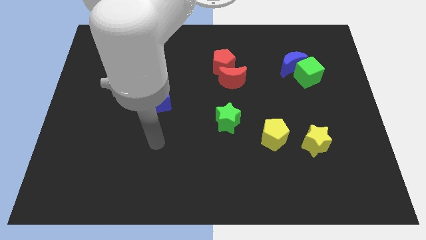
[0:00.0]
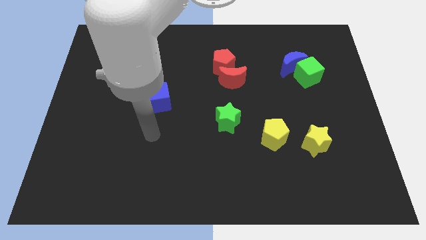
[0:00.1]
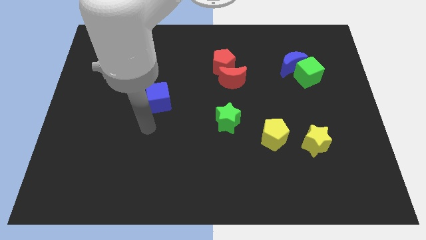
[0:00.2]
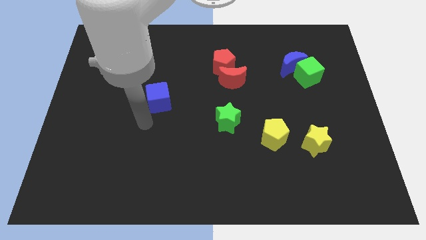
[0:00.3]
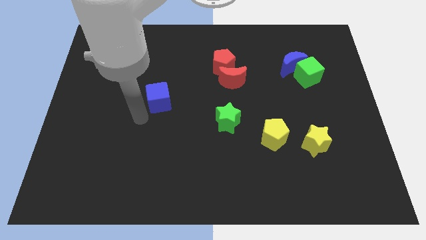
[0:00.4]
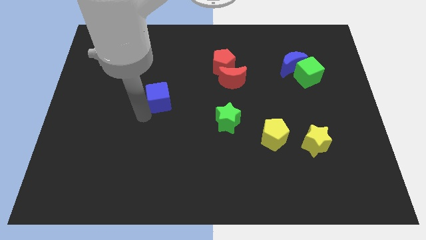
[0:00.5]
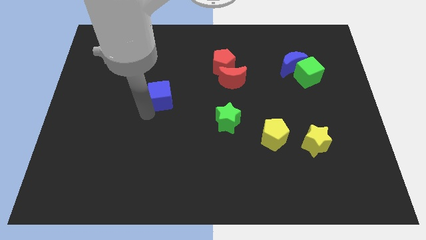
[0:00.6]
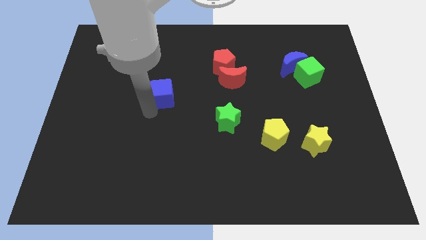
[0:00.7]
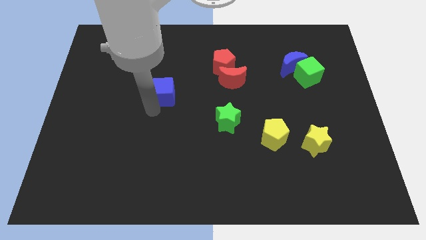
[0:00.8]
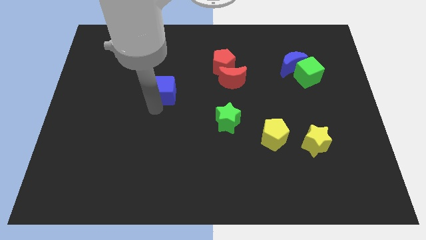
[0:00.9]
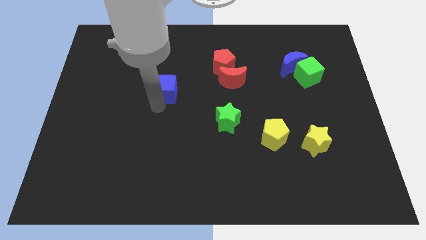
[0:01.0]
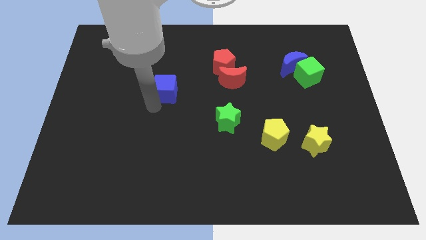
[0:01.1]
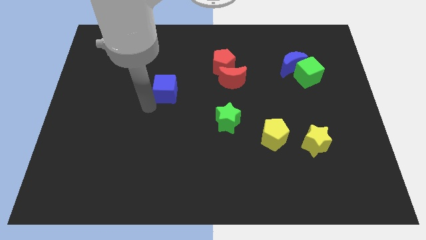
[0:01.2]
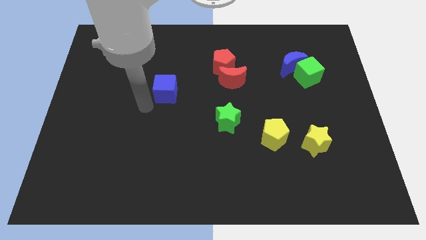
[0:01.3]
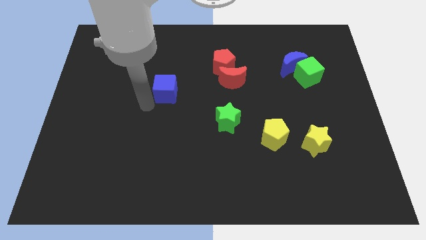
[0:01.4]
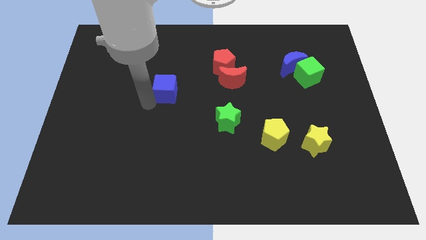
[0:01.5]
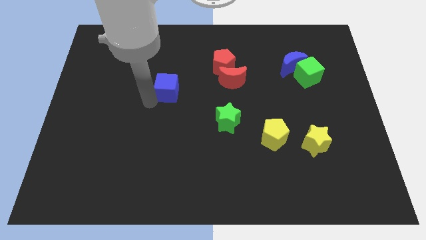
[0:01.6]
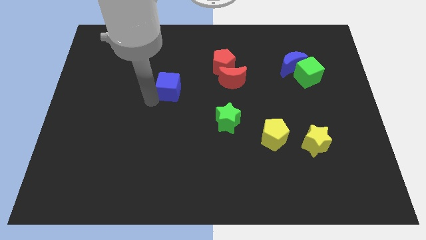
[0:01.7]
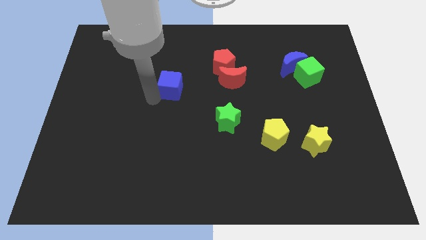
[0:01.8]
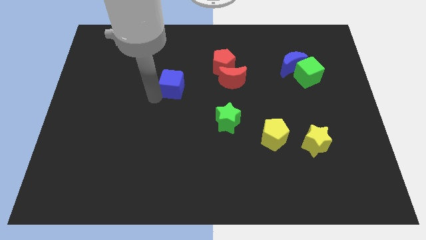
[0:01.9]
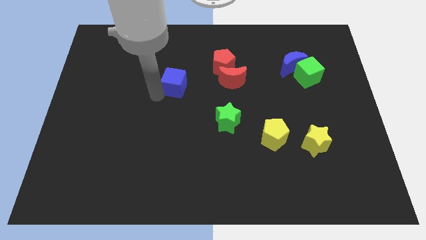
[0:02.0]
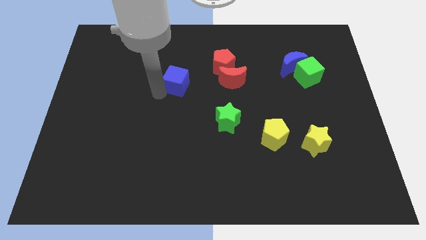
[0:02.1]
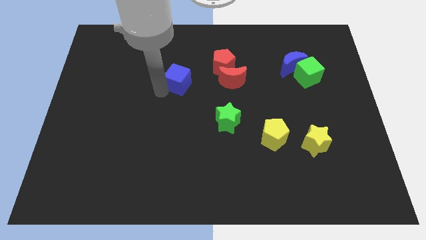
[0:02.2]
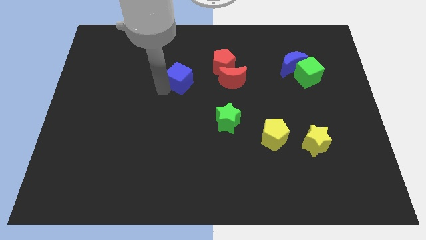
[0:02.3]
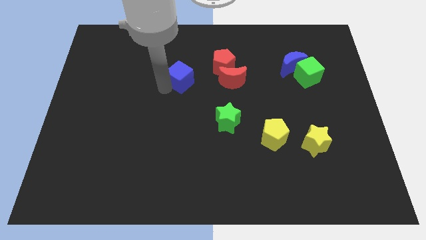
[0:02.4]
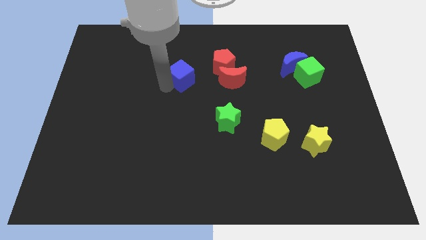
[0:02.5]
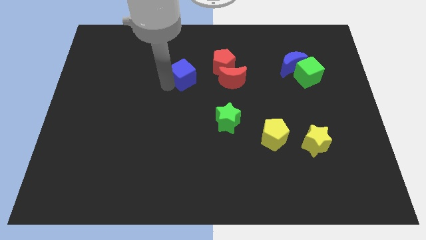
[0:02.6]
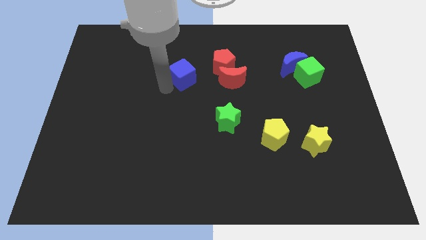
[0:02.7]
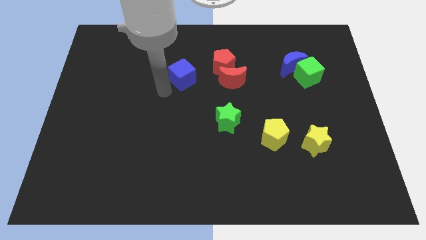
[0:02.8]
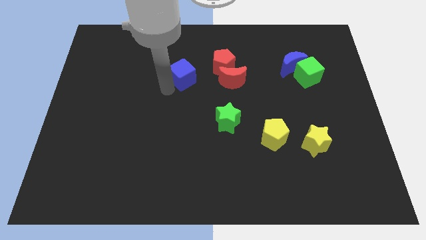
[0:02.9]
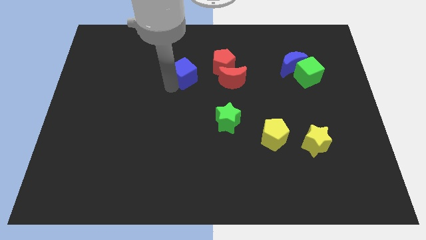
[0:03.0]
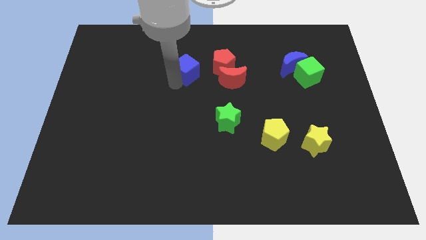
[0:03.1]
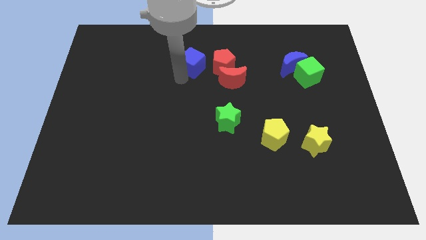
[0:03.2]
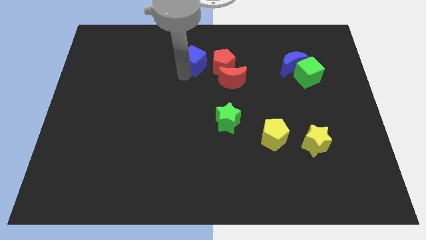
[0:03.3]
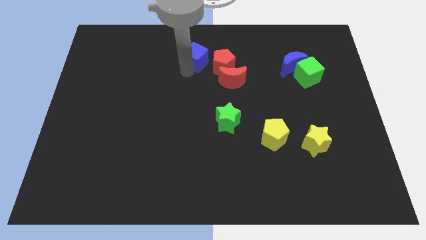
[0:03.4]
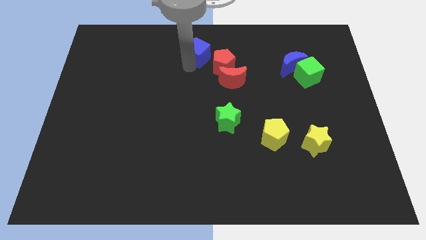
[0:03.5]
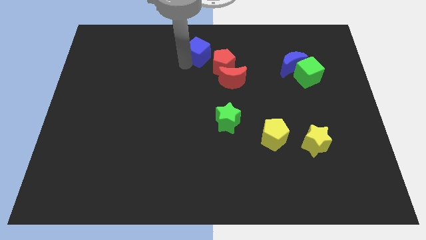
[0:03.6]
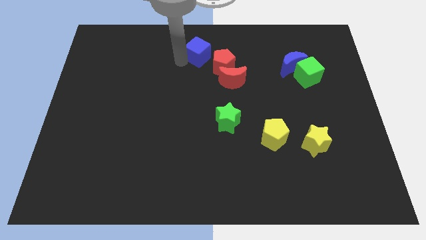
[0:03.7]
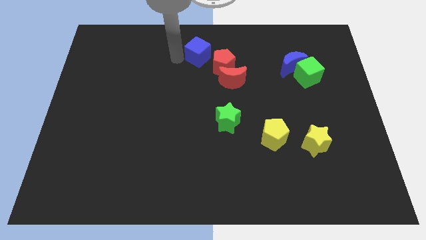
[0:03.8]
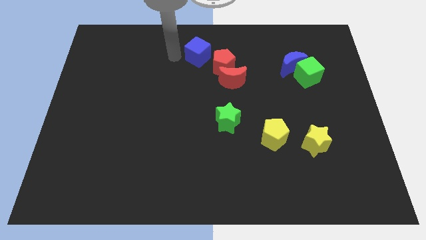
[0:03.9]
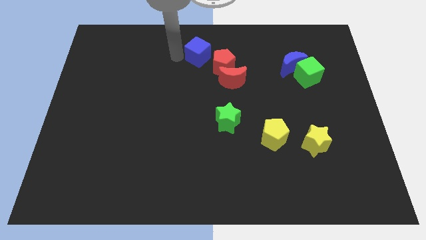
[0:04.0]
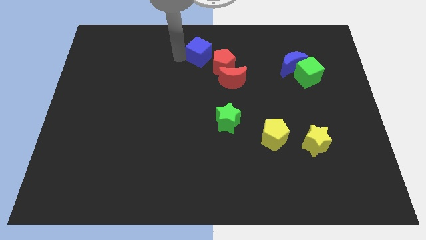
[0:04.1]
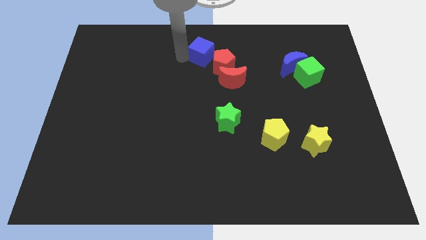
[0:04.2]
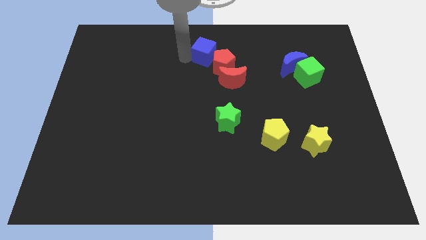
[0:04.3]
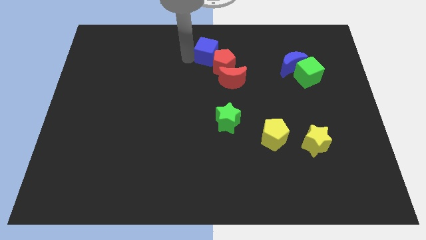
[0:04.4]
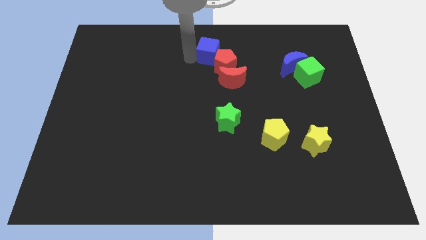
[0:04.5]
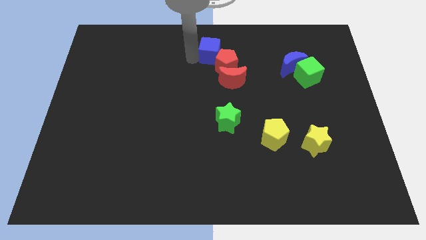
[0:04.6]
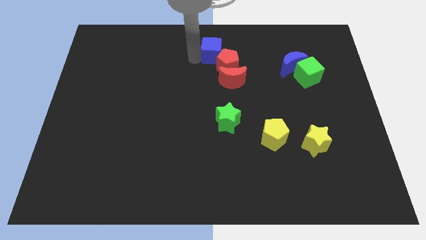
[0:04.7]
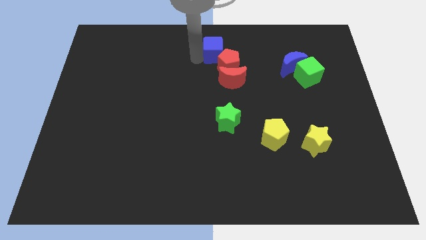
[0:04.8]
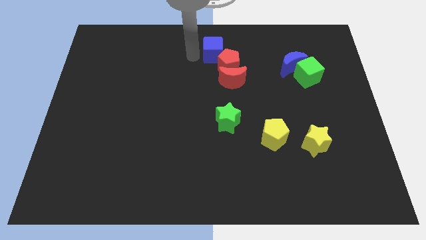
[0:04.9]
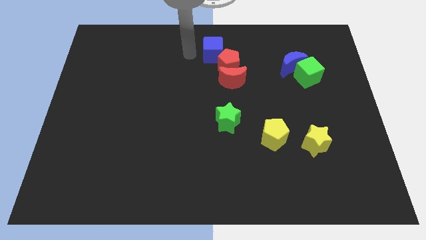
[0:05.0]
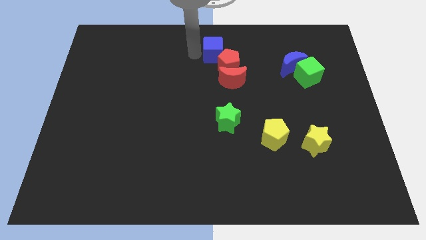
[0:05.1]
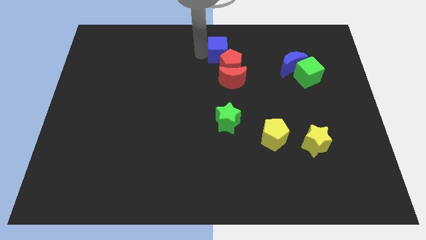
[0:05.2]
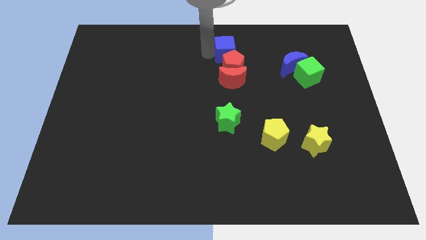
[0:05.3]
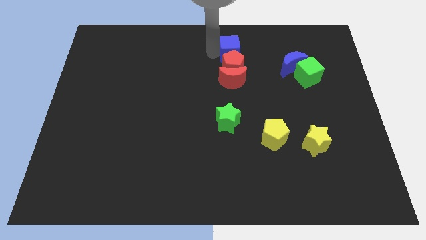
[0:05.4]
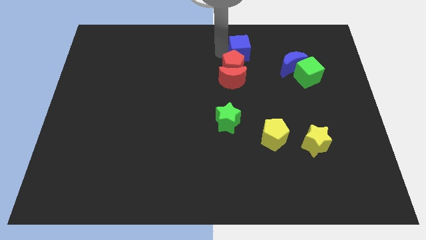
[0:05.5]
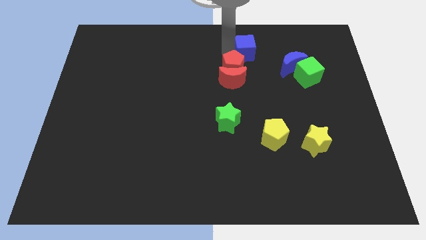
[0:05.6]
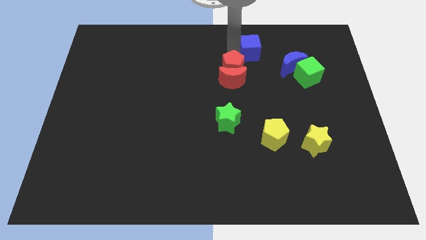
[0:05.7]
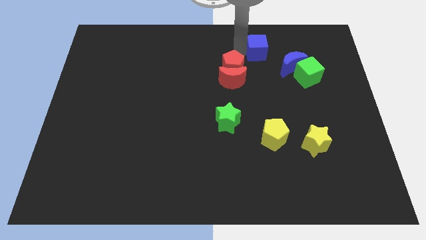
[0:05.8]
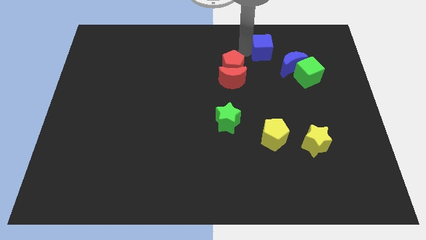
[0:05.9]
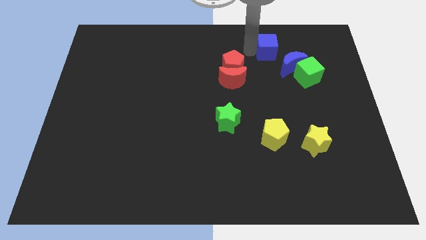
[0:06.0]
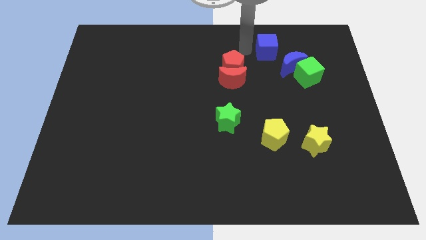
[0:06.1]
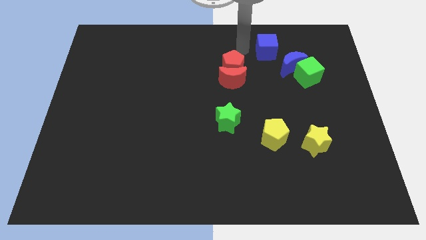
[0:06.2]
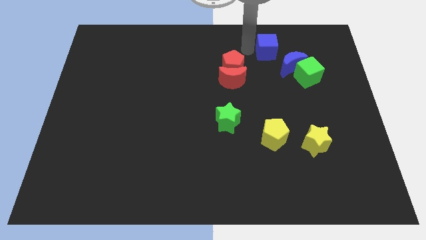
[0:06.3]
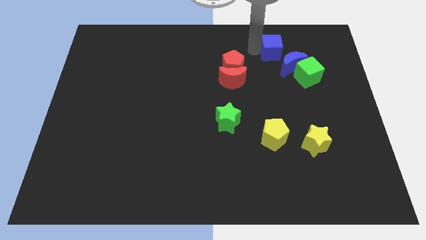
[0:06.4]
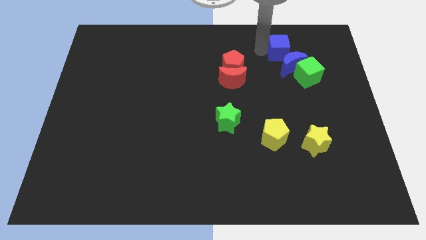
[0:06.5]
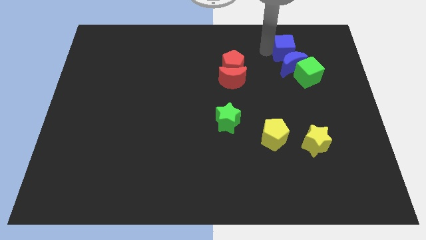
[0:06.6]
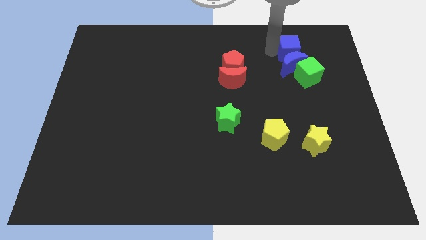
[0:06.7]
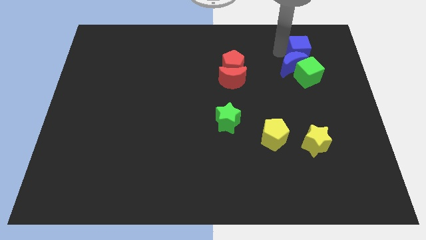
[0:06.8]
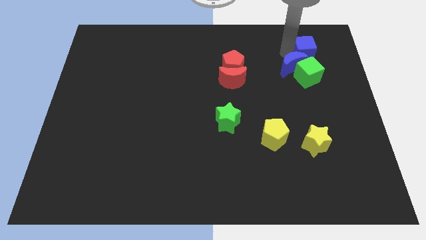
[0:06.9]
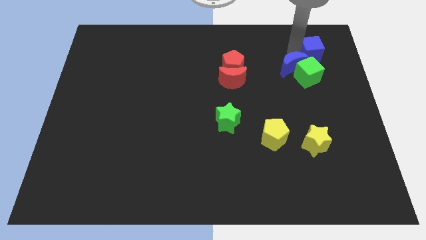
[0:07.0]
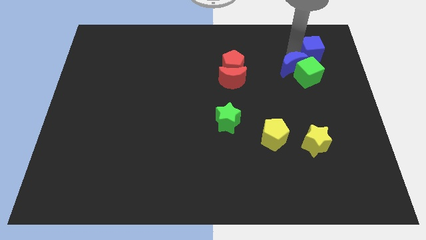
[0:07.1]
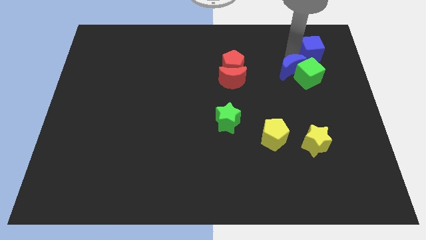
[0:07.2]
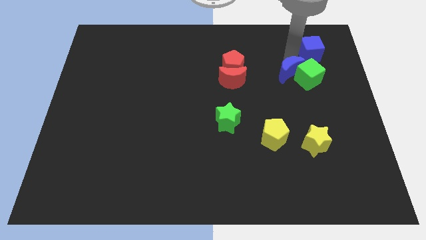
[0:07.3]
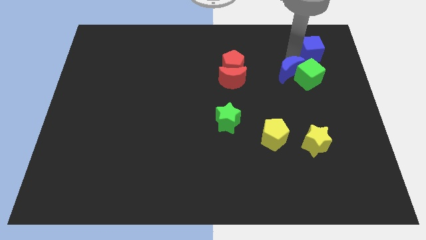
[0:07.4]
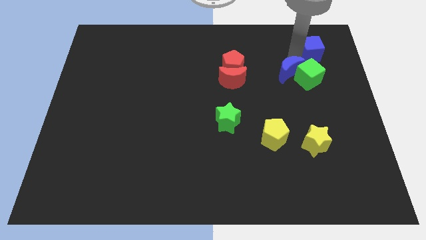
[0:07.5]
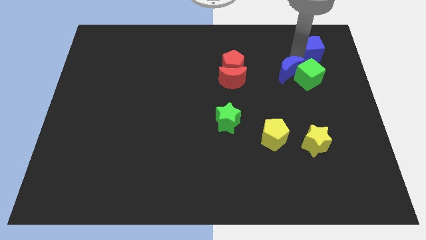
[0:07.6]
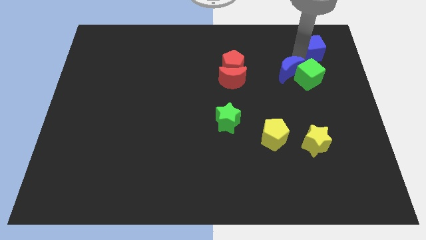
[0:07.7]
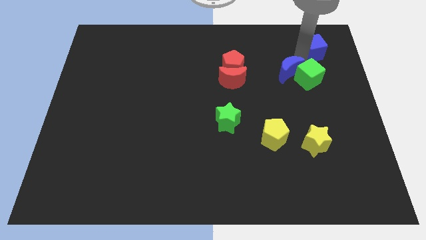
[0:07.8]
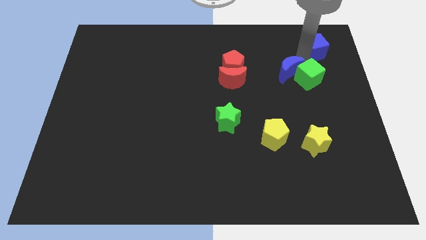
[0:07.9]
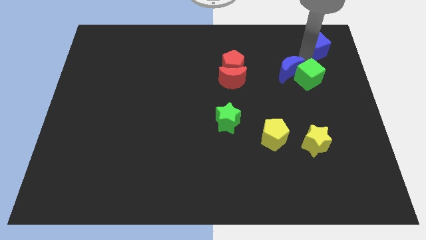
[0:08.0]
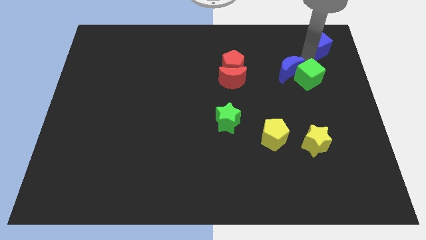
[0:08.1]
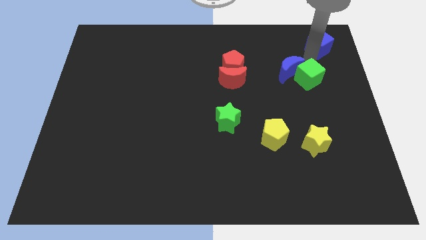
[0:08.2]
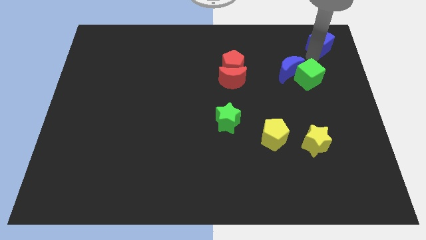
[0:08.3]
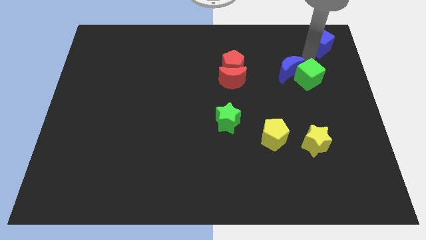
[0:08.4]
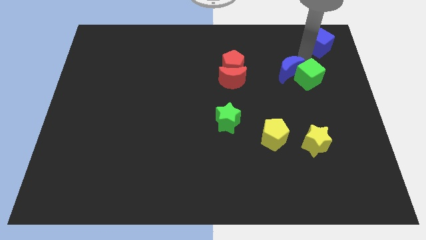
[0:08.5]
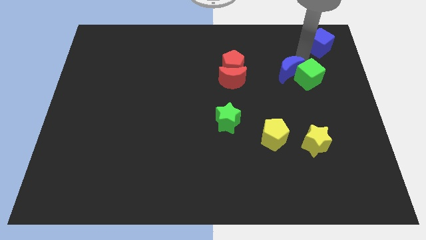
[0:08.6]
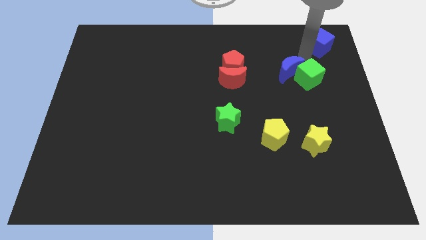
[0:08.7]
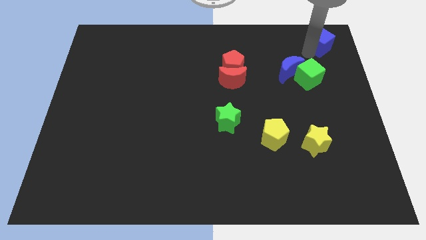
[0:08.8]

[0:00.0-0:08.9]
move the blue cube to the upper right corner
